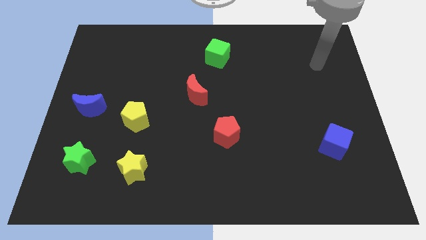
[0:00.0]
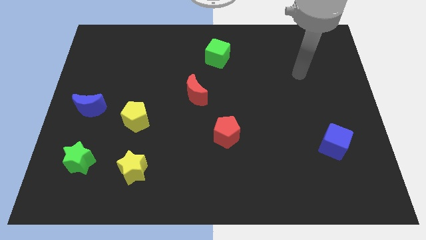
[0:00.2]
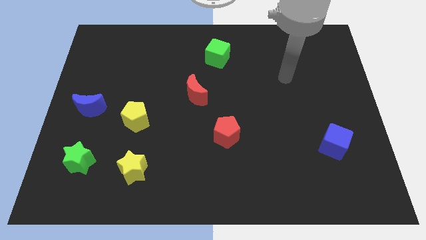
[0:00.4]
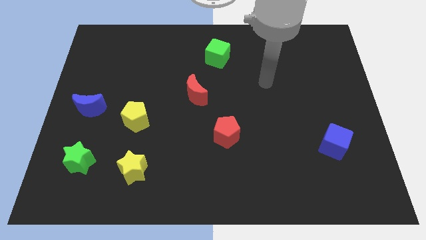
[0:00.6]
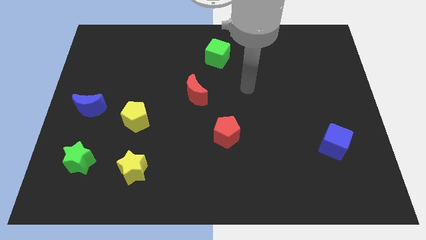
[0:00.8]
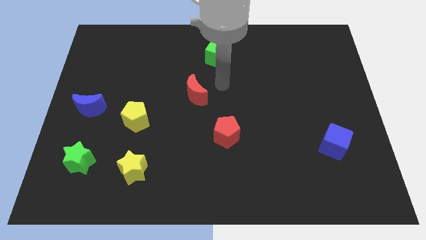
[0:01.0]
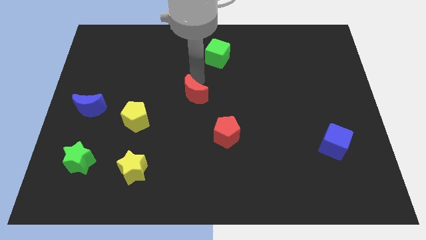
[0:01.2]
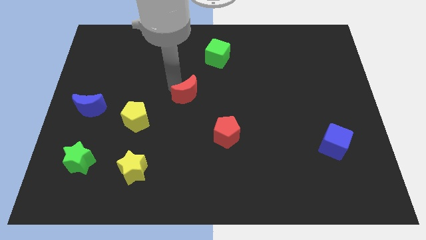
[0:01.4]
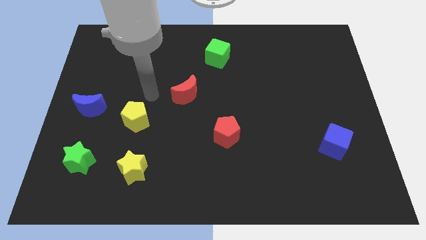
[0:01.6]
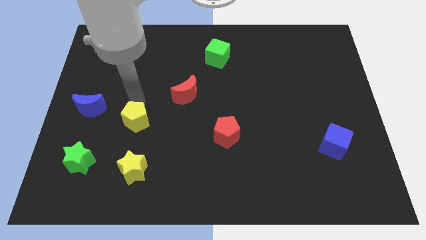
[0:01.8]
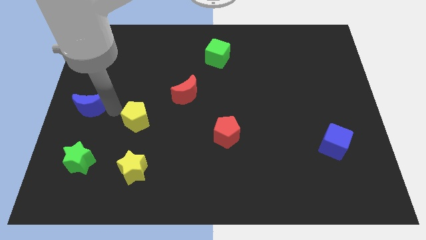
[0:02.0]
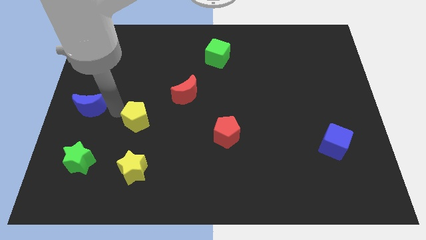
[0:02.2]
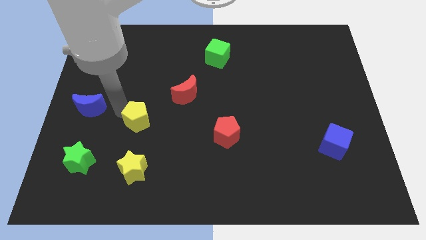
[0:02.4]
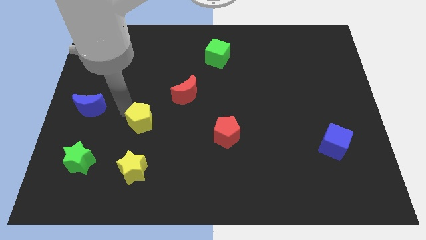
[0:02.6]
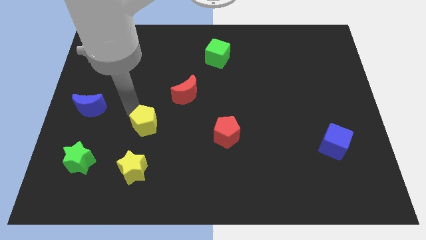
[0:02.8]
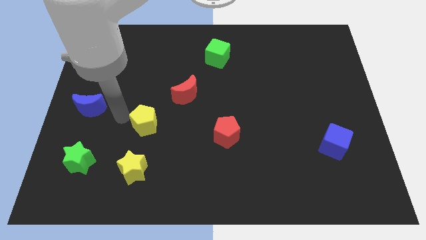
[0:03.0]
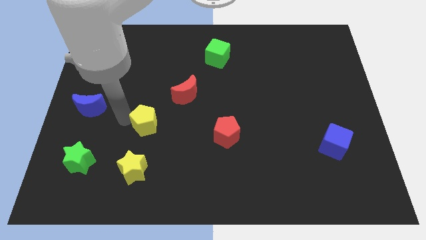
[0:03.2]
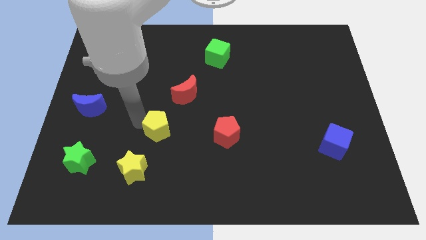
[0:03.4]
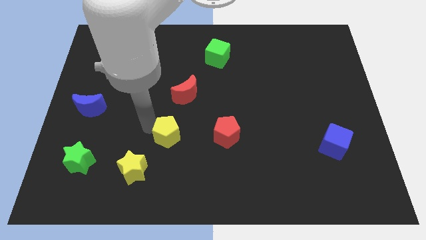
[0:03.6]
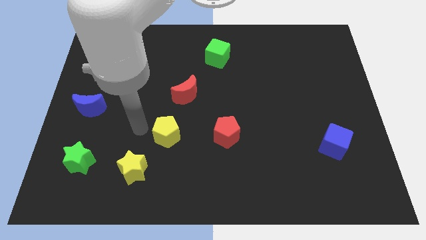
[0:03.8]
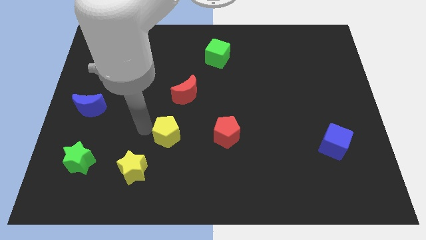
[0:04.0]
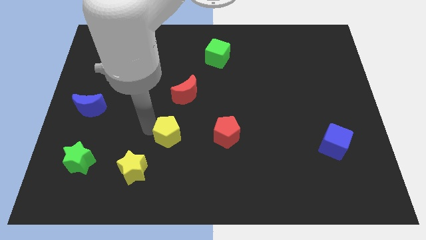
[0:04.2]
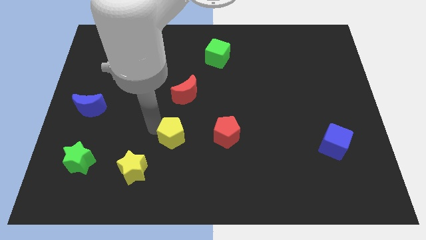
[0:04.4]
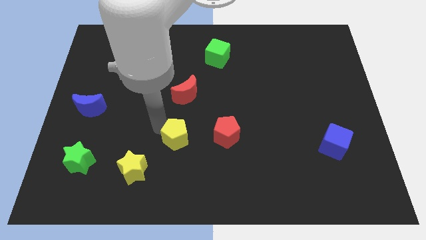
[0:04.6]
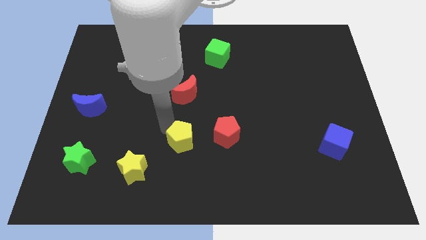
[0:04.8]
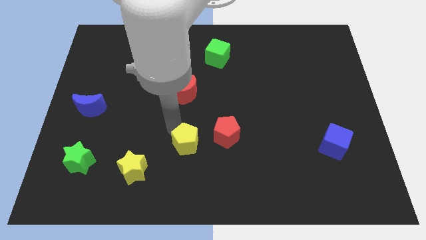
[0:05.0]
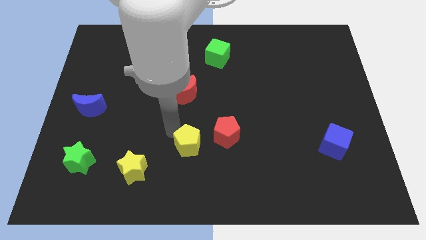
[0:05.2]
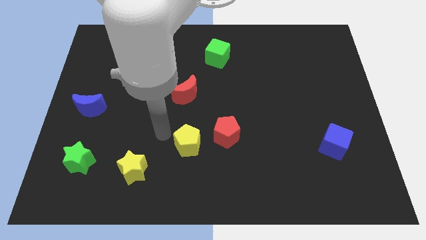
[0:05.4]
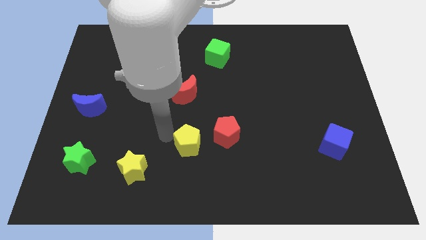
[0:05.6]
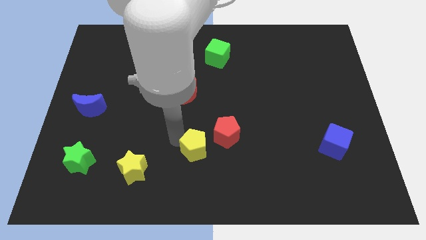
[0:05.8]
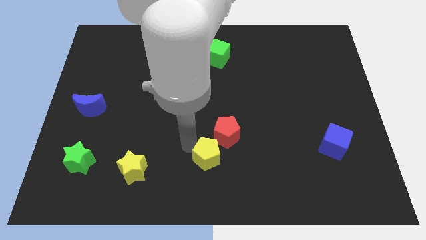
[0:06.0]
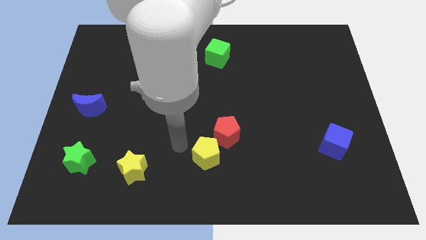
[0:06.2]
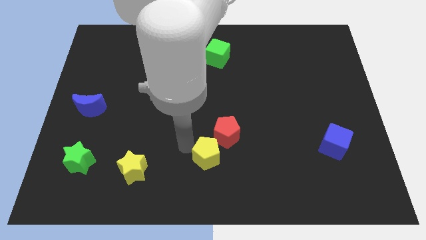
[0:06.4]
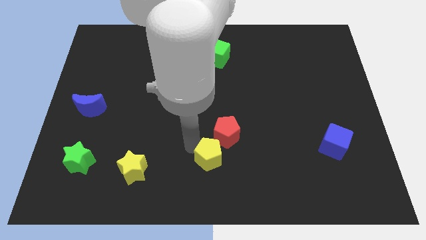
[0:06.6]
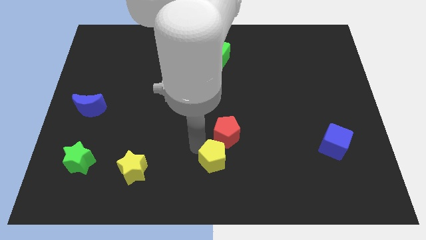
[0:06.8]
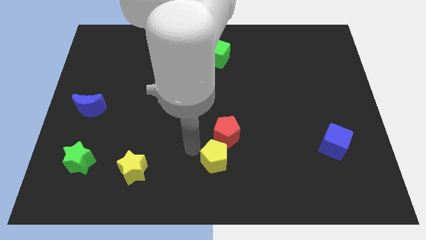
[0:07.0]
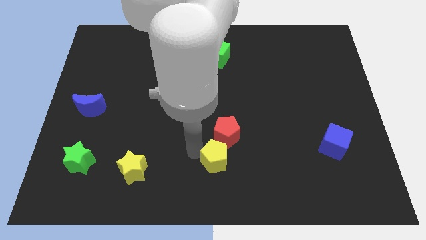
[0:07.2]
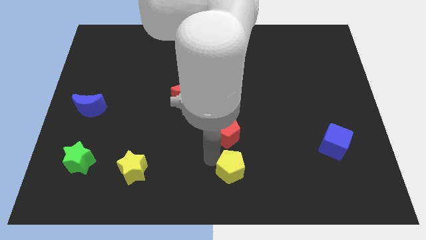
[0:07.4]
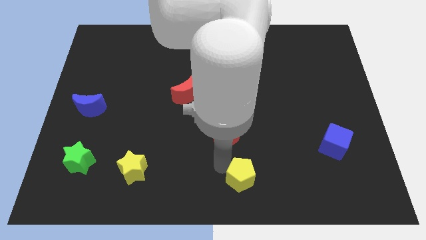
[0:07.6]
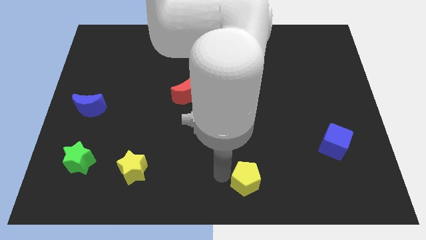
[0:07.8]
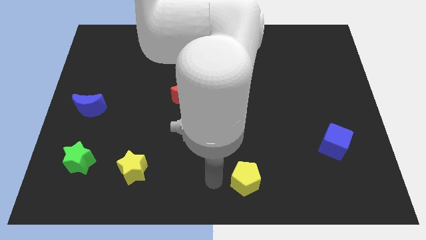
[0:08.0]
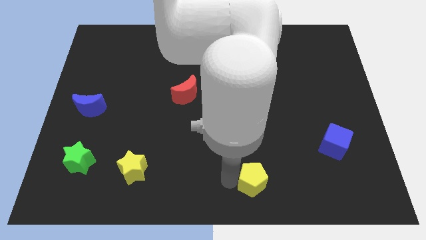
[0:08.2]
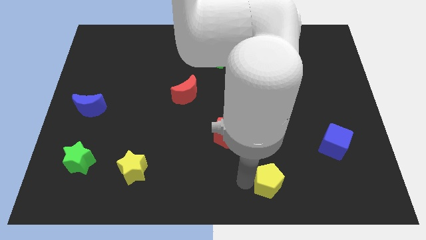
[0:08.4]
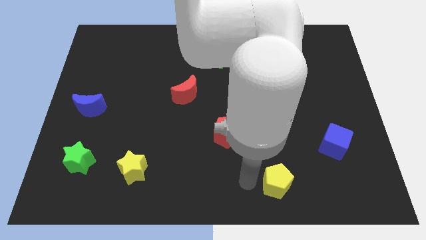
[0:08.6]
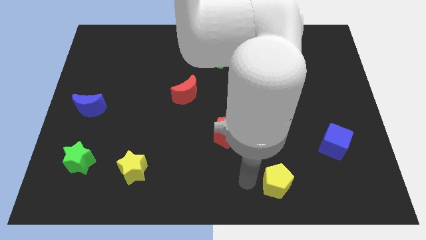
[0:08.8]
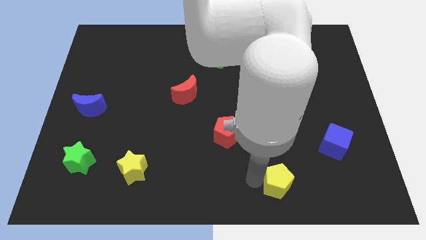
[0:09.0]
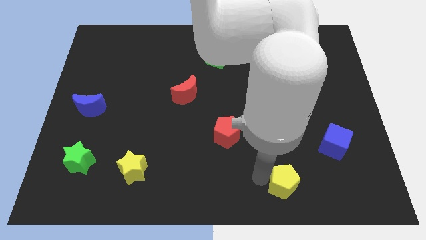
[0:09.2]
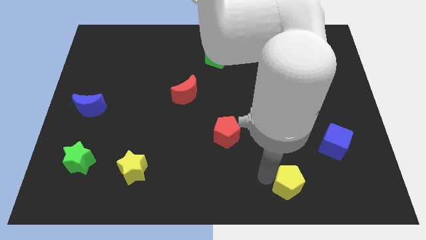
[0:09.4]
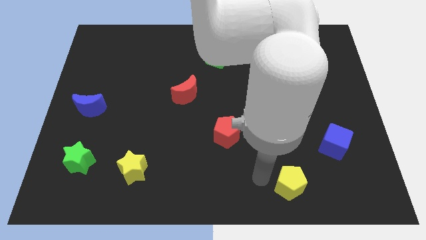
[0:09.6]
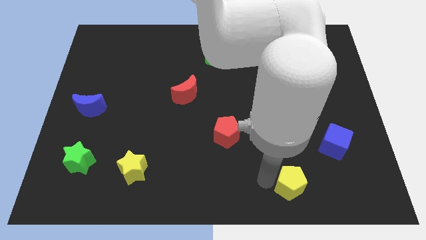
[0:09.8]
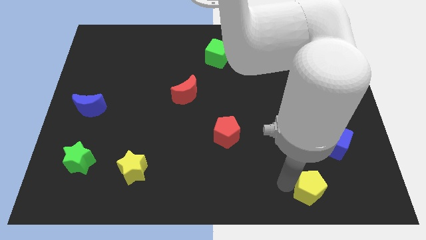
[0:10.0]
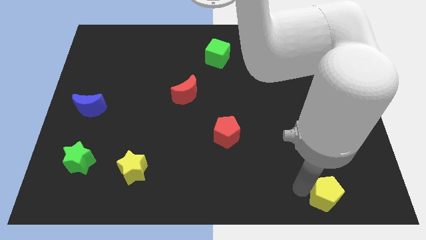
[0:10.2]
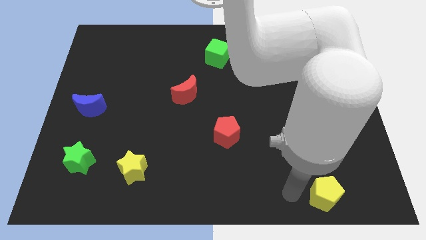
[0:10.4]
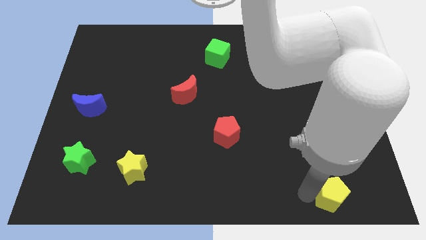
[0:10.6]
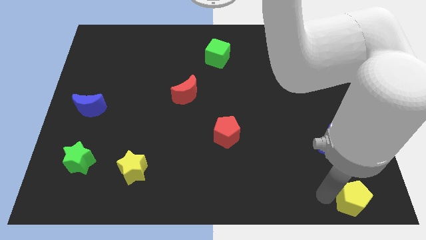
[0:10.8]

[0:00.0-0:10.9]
move the yellow pentagon to the lower right corner
